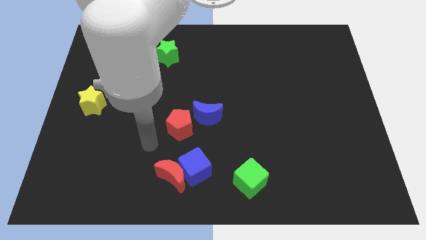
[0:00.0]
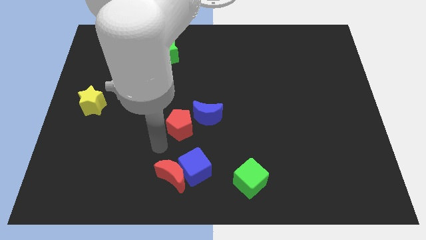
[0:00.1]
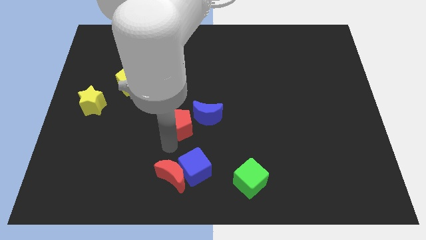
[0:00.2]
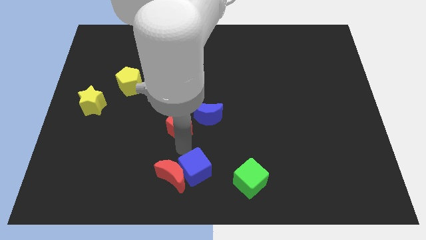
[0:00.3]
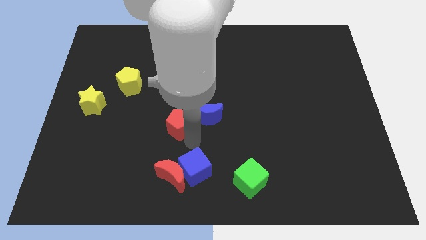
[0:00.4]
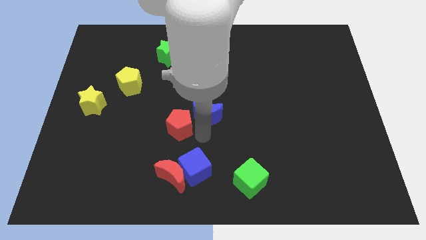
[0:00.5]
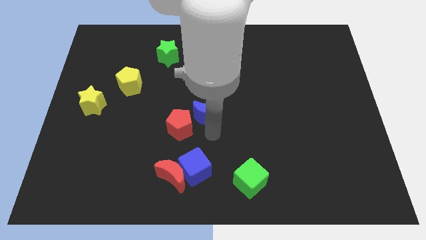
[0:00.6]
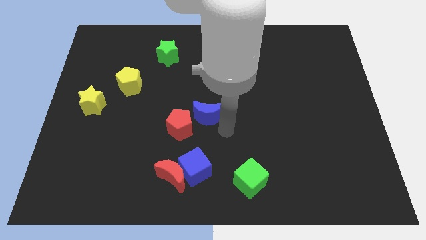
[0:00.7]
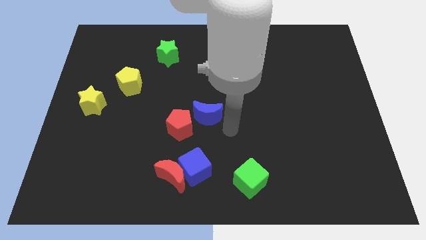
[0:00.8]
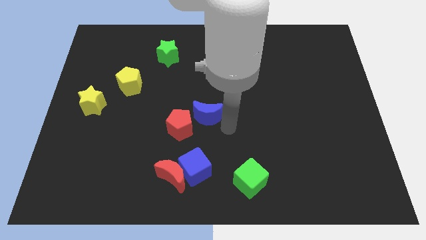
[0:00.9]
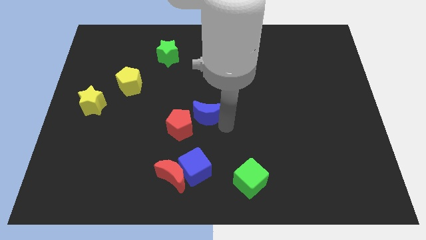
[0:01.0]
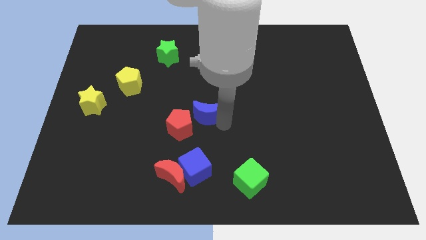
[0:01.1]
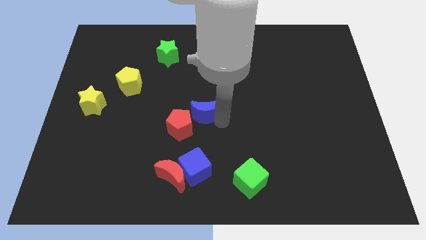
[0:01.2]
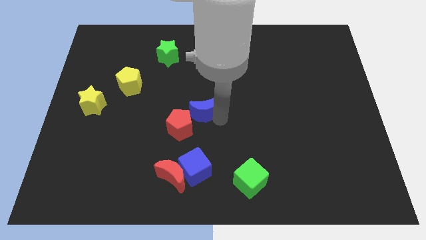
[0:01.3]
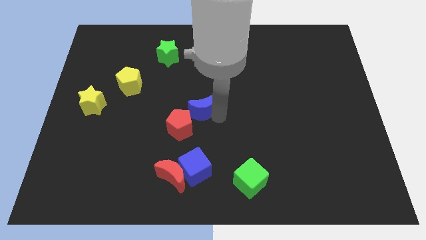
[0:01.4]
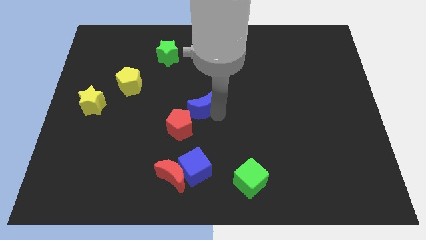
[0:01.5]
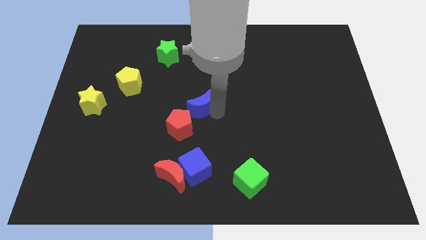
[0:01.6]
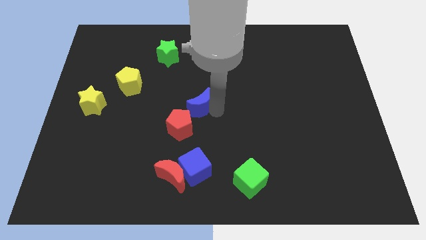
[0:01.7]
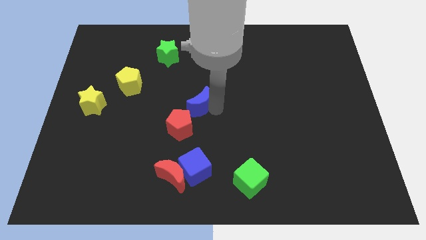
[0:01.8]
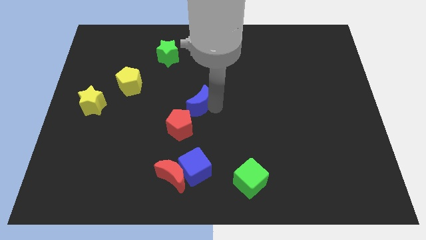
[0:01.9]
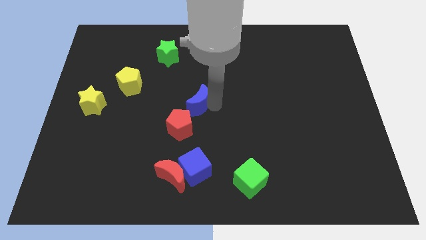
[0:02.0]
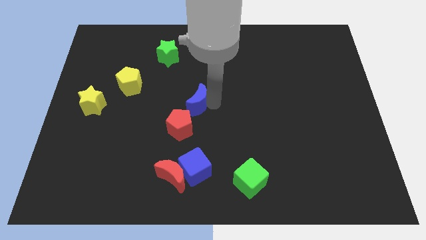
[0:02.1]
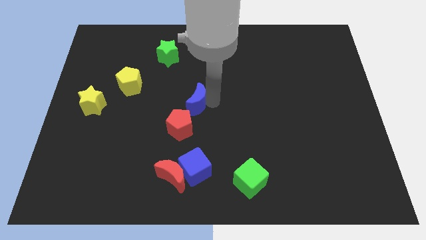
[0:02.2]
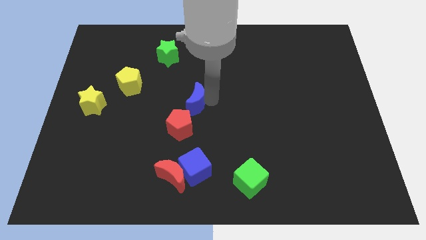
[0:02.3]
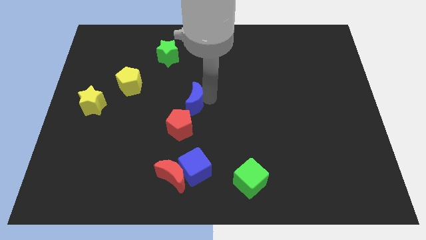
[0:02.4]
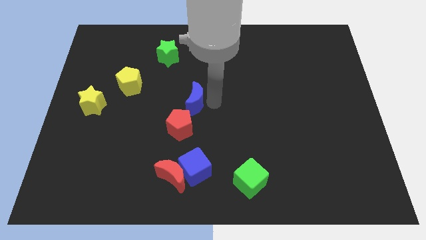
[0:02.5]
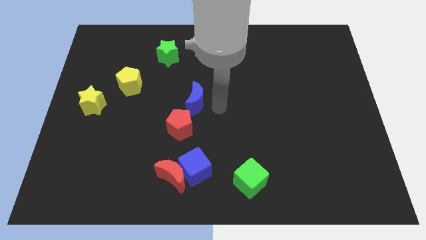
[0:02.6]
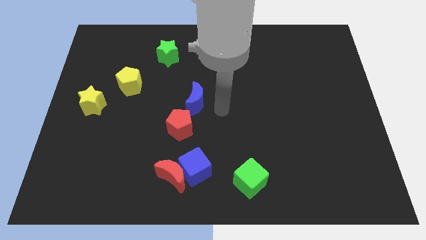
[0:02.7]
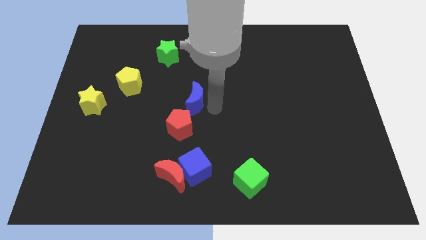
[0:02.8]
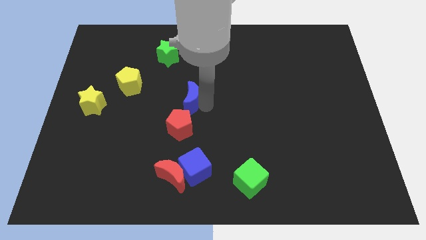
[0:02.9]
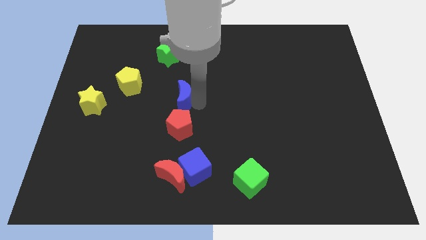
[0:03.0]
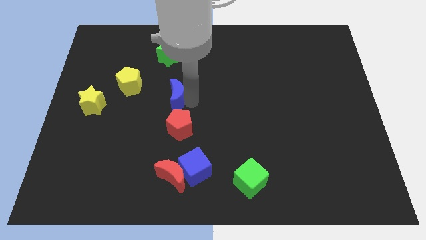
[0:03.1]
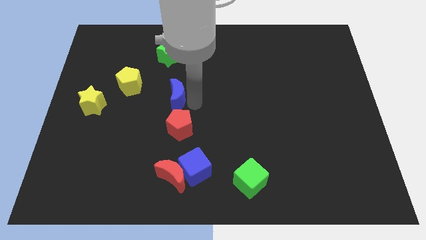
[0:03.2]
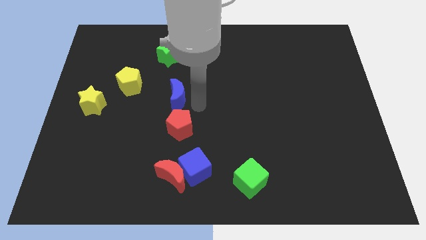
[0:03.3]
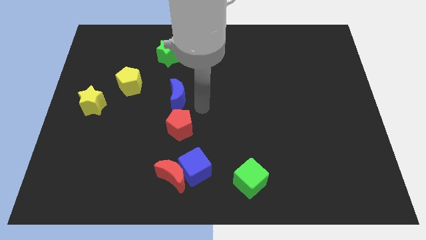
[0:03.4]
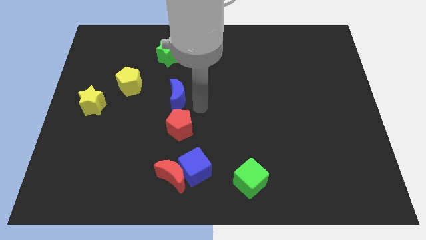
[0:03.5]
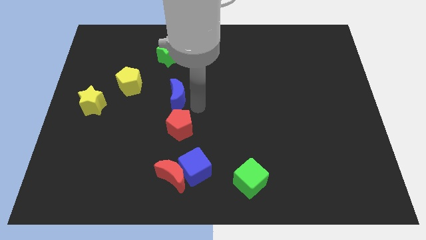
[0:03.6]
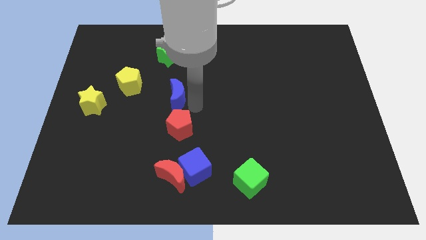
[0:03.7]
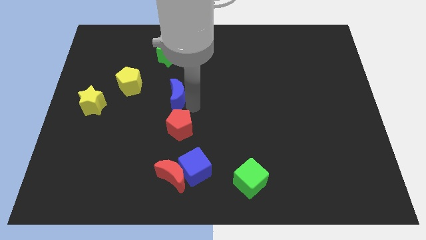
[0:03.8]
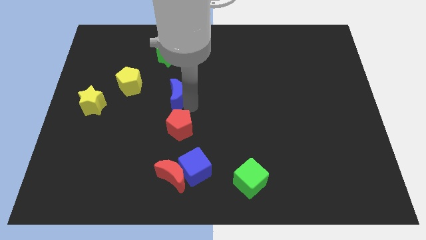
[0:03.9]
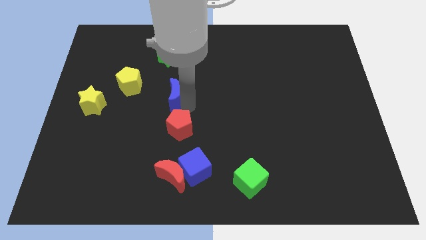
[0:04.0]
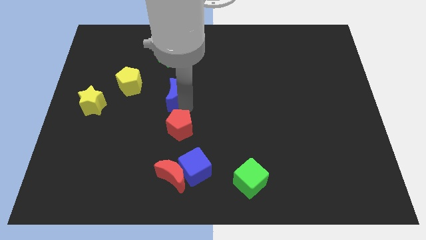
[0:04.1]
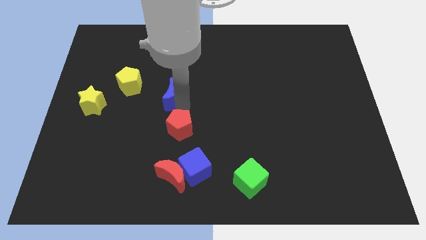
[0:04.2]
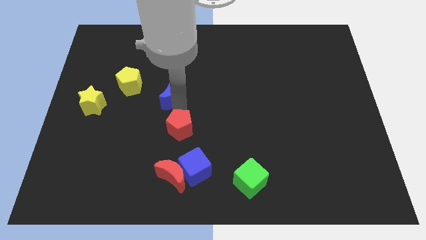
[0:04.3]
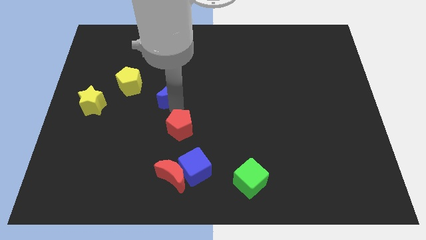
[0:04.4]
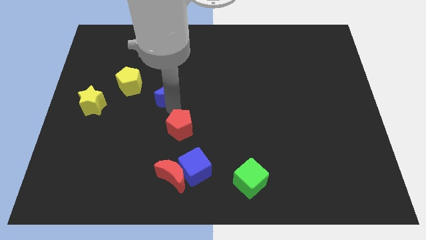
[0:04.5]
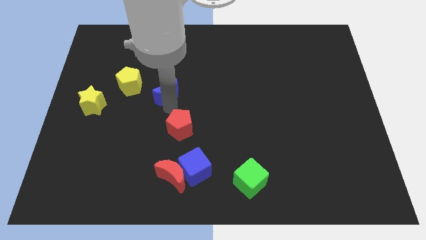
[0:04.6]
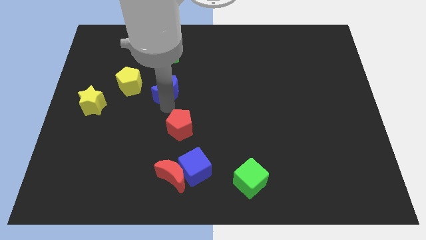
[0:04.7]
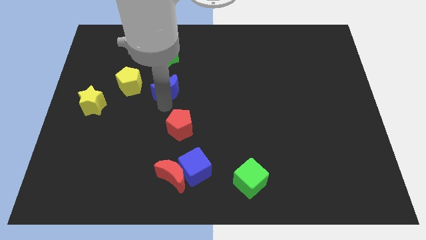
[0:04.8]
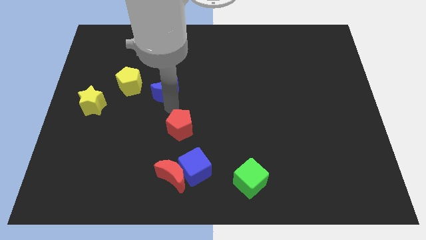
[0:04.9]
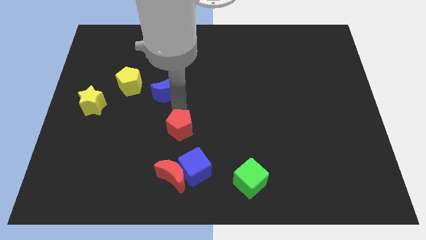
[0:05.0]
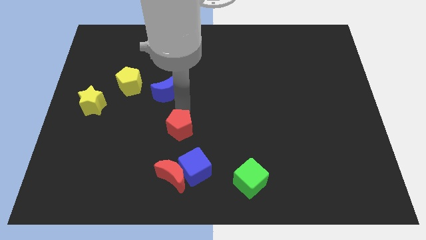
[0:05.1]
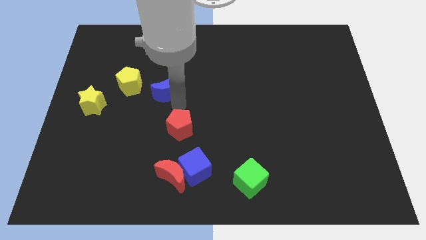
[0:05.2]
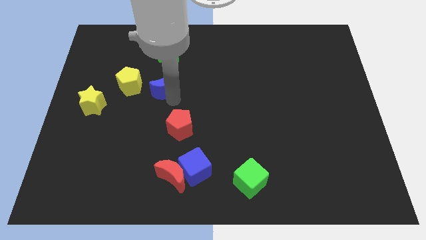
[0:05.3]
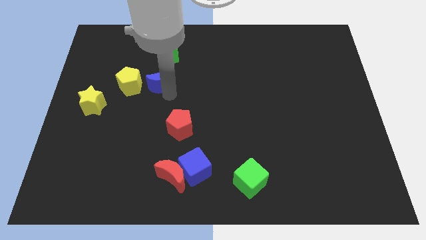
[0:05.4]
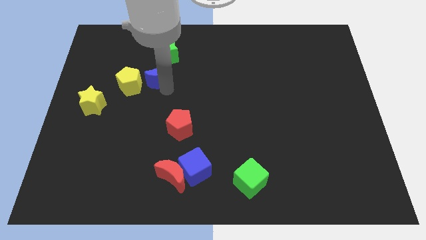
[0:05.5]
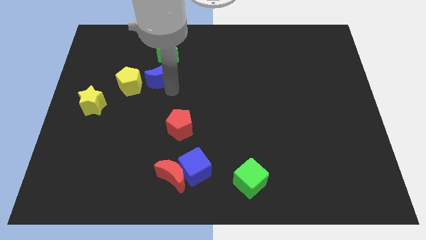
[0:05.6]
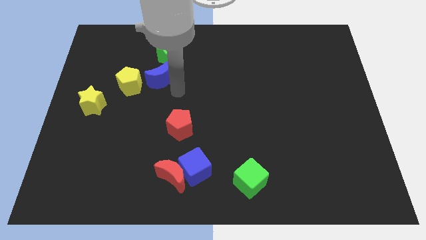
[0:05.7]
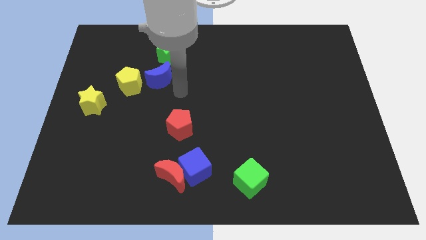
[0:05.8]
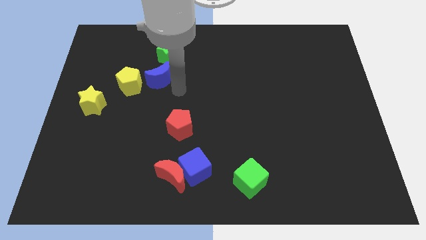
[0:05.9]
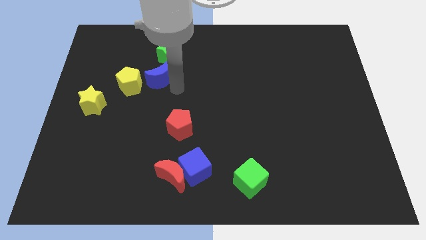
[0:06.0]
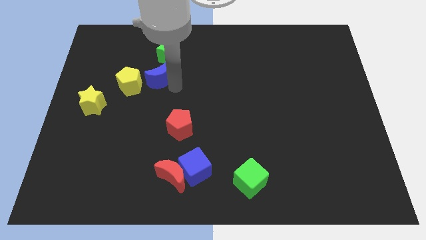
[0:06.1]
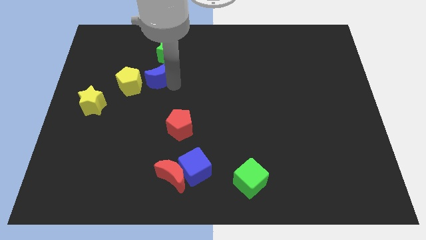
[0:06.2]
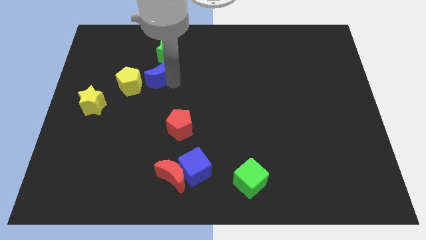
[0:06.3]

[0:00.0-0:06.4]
put the blue moon diagonally down and to the left of the green star

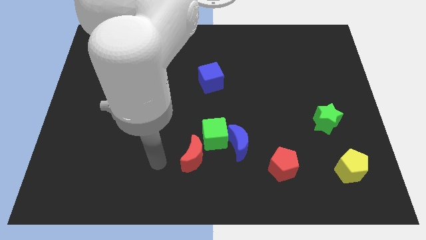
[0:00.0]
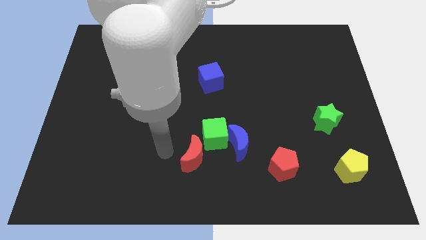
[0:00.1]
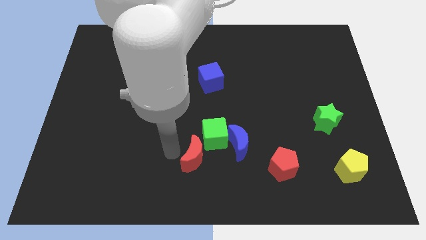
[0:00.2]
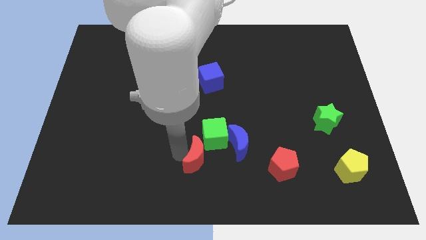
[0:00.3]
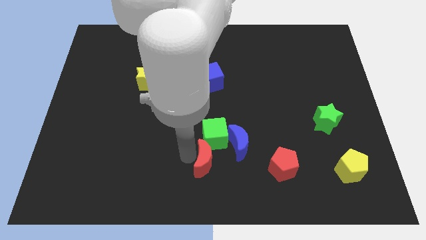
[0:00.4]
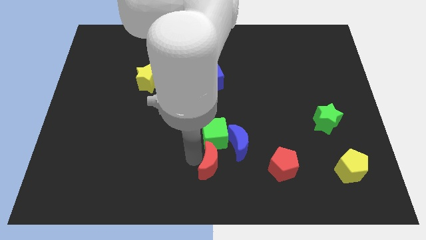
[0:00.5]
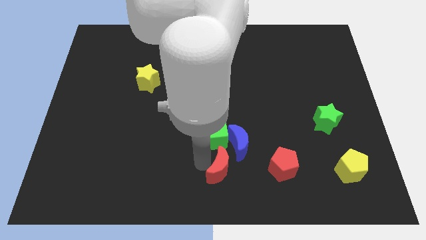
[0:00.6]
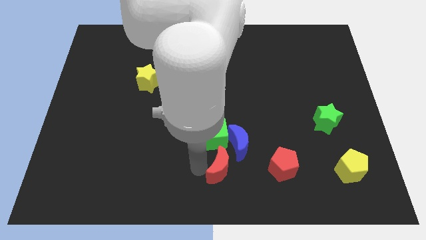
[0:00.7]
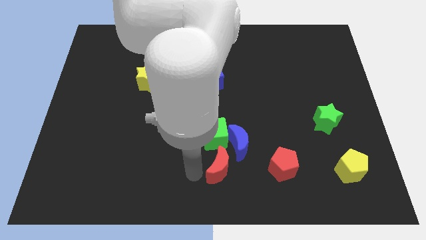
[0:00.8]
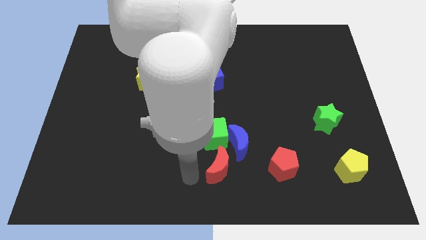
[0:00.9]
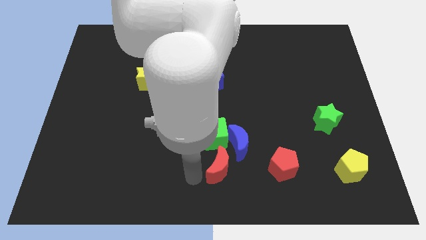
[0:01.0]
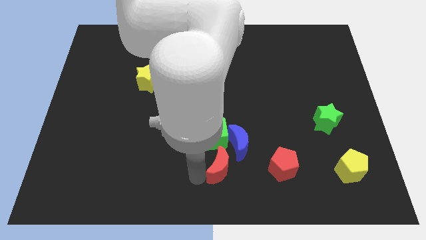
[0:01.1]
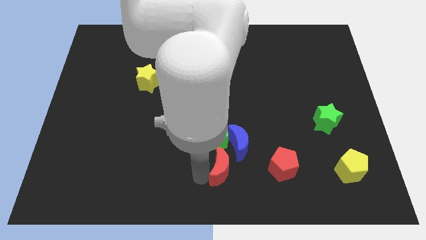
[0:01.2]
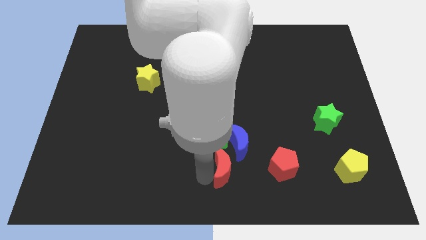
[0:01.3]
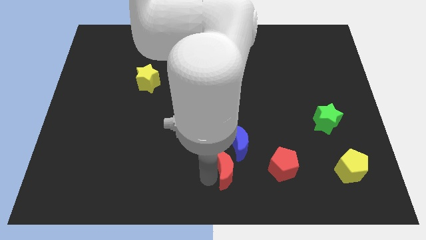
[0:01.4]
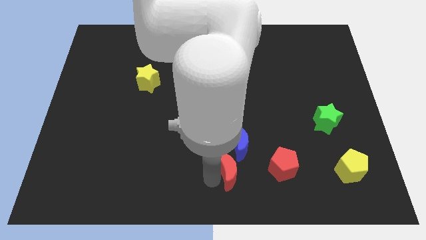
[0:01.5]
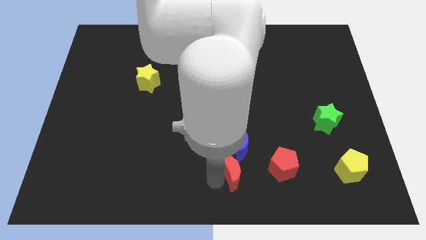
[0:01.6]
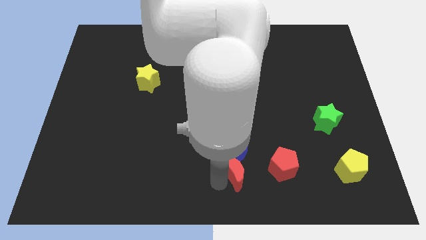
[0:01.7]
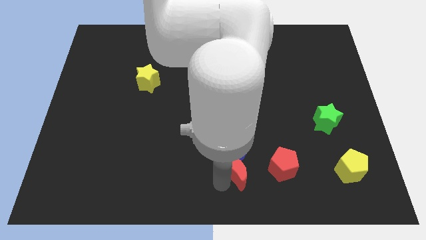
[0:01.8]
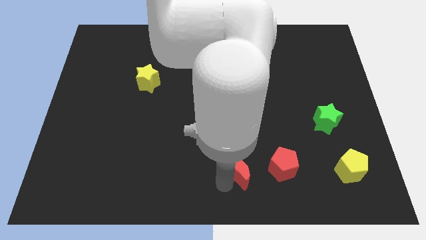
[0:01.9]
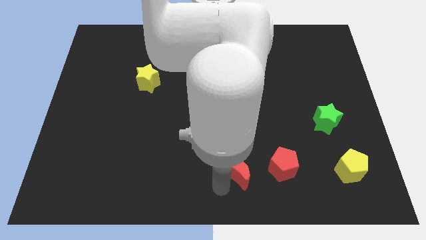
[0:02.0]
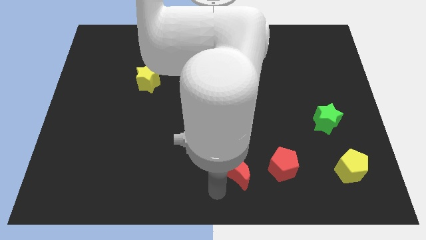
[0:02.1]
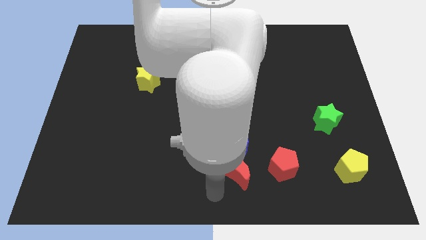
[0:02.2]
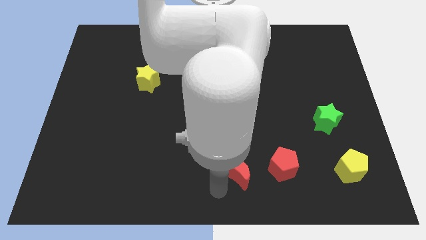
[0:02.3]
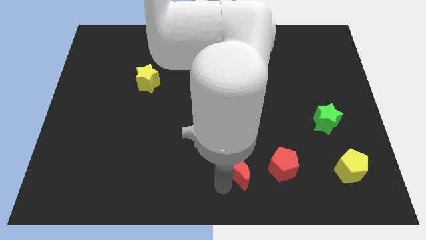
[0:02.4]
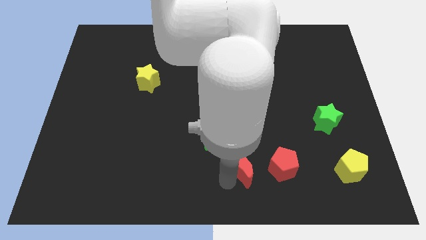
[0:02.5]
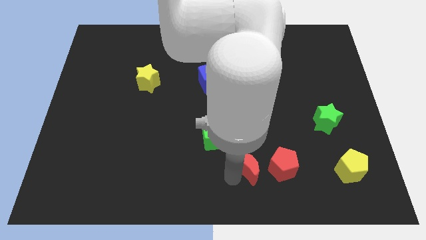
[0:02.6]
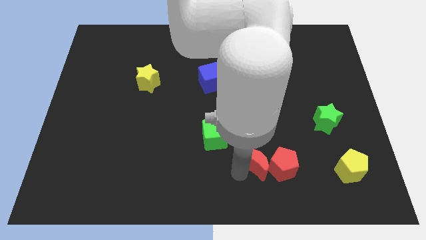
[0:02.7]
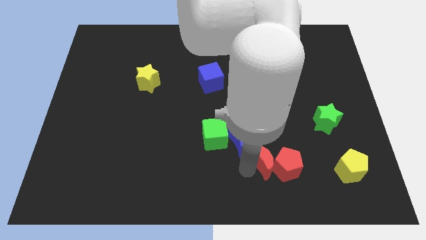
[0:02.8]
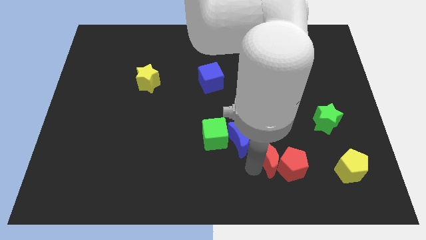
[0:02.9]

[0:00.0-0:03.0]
push the red moon just right of the blue moon
